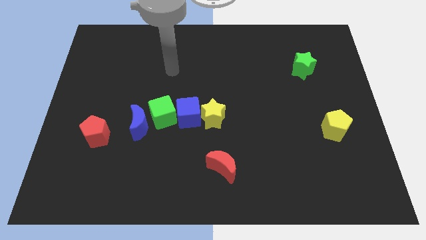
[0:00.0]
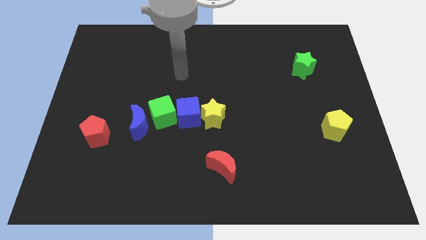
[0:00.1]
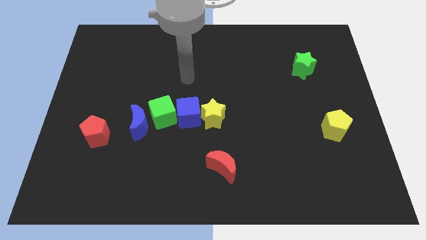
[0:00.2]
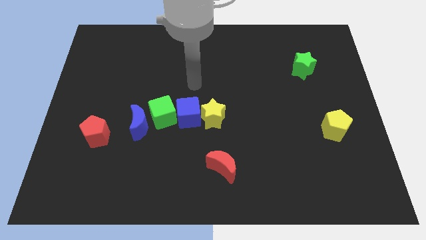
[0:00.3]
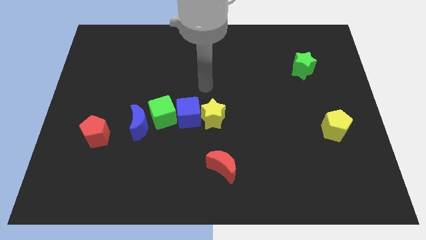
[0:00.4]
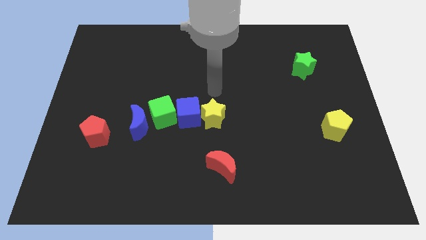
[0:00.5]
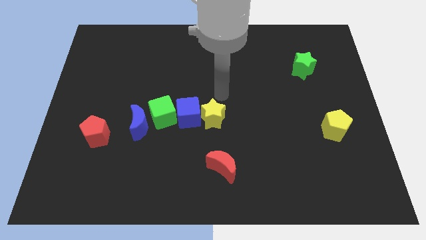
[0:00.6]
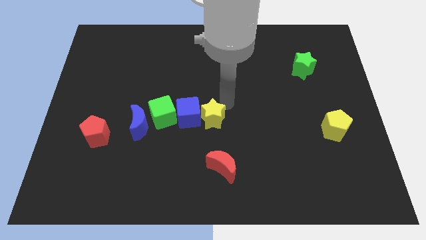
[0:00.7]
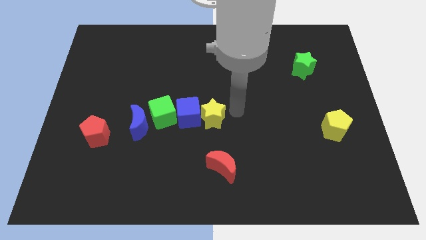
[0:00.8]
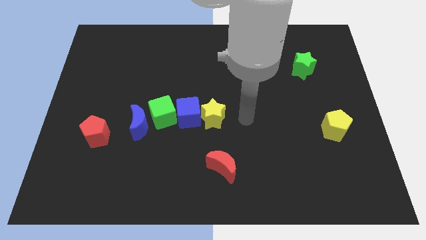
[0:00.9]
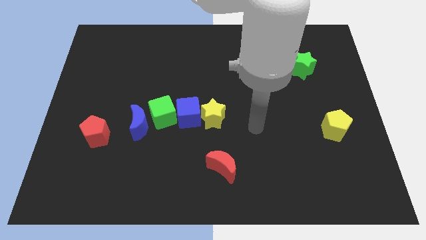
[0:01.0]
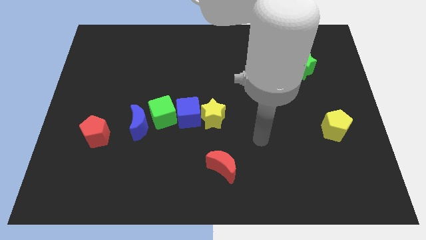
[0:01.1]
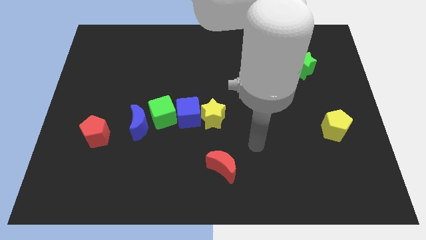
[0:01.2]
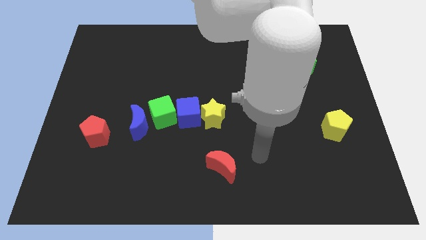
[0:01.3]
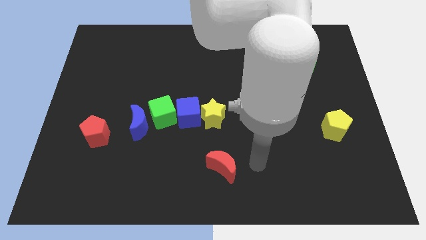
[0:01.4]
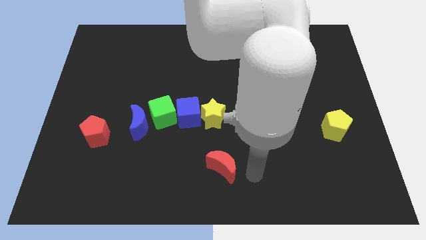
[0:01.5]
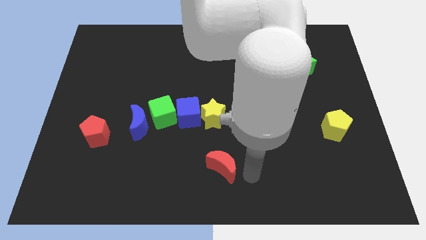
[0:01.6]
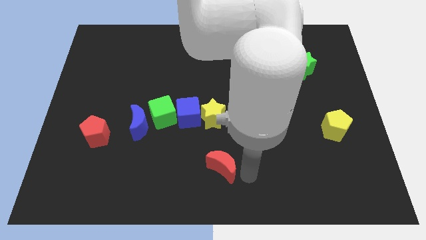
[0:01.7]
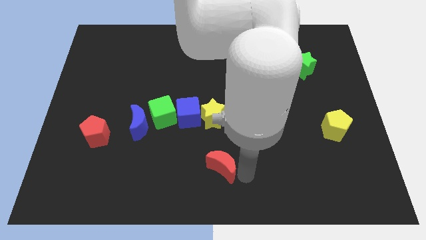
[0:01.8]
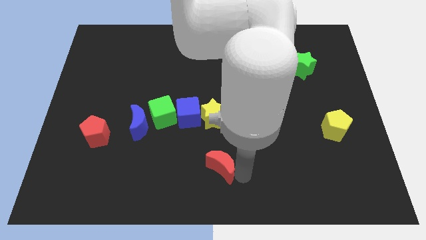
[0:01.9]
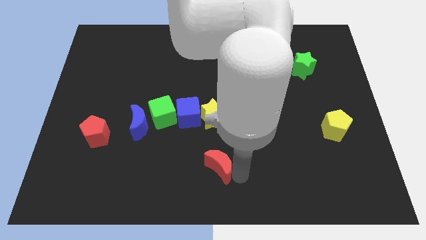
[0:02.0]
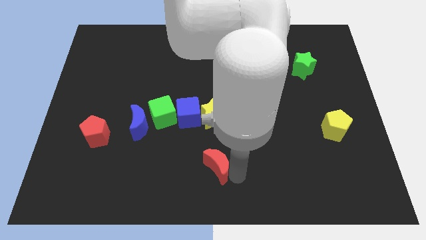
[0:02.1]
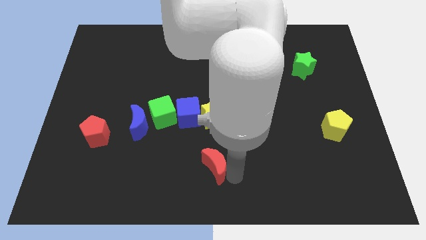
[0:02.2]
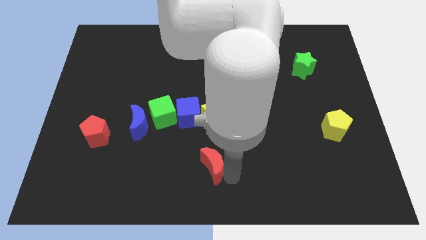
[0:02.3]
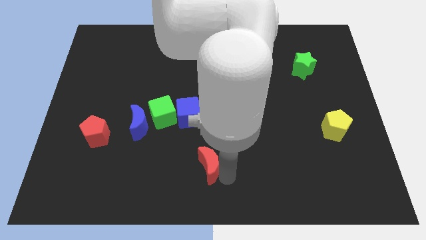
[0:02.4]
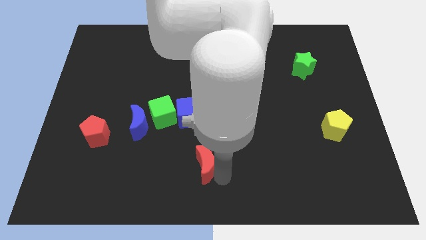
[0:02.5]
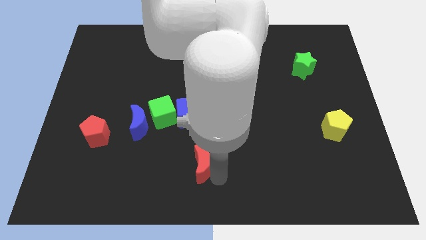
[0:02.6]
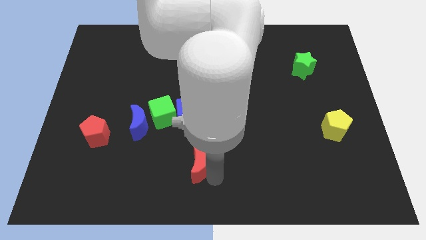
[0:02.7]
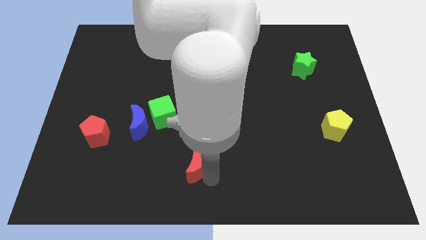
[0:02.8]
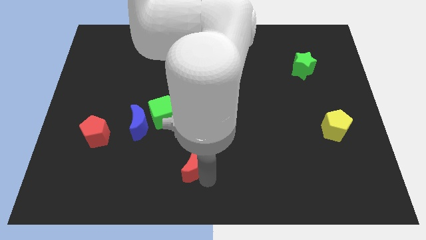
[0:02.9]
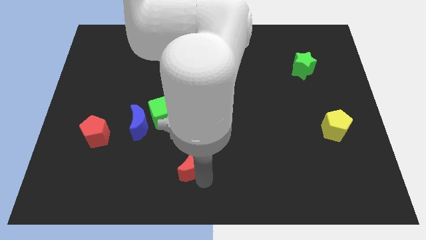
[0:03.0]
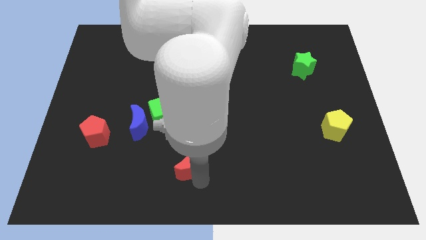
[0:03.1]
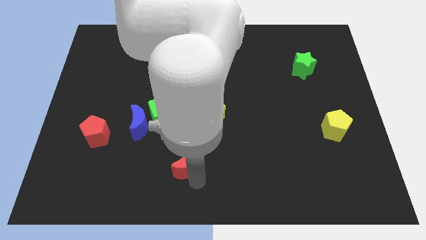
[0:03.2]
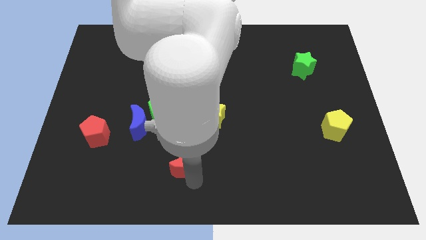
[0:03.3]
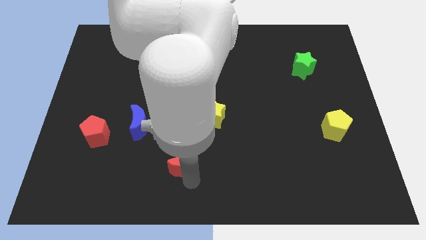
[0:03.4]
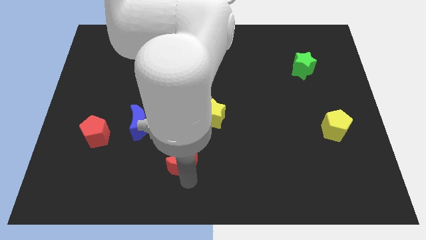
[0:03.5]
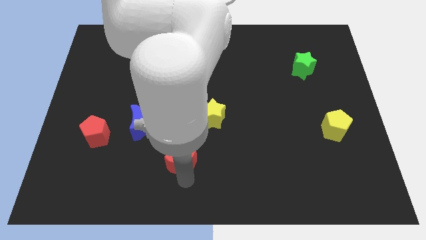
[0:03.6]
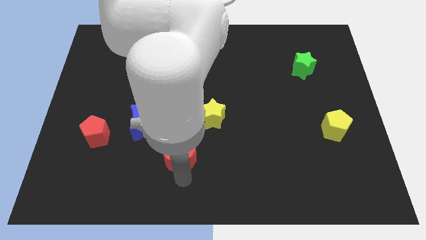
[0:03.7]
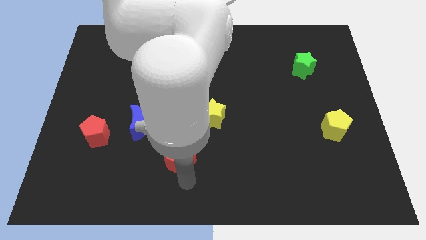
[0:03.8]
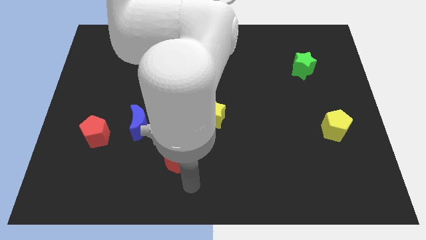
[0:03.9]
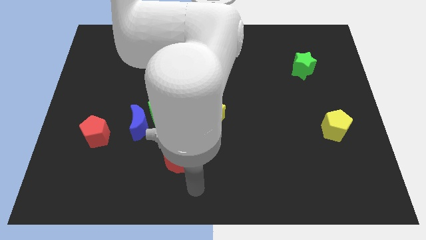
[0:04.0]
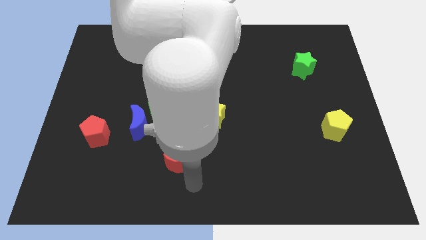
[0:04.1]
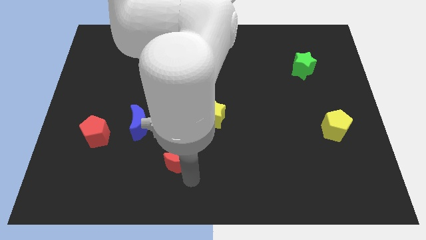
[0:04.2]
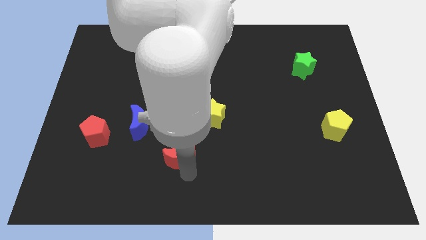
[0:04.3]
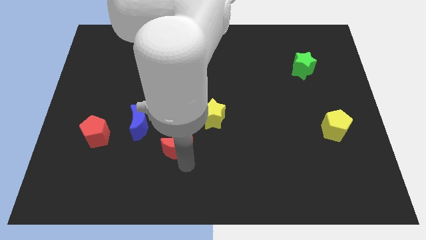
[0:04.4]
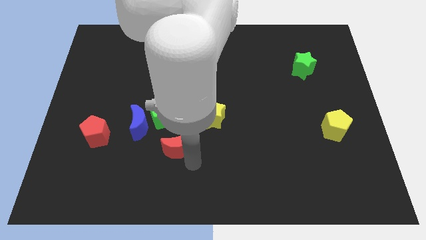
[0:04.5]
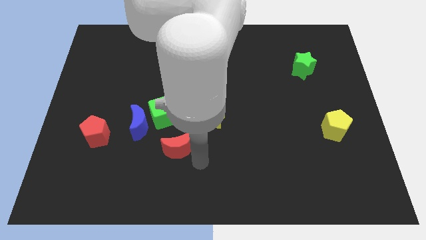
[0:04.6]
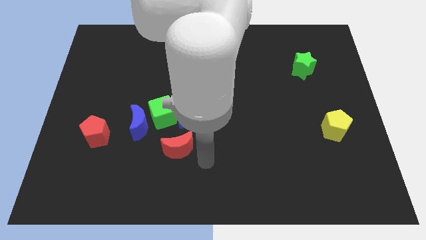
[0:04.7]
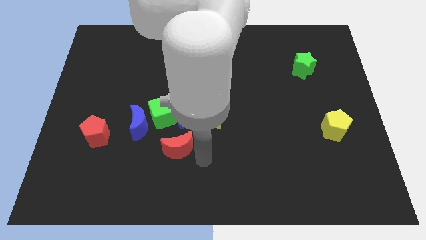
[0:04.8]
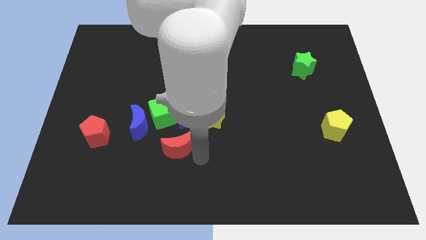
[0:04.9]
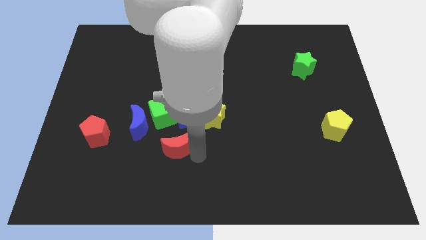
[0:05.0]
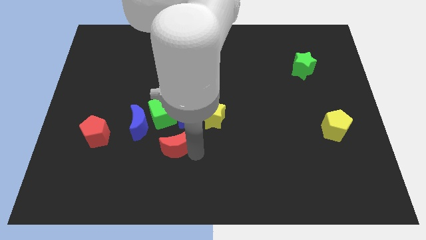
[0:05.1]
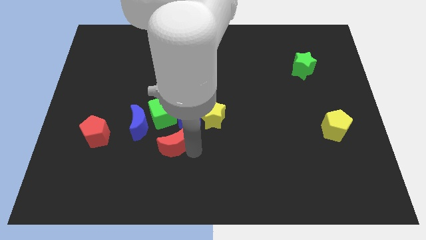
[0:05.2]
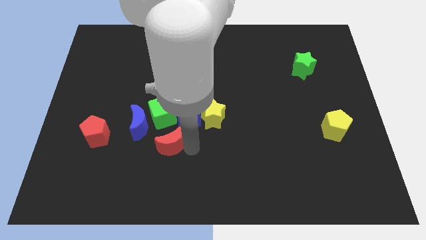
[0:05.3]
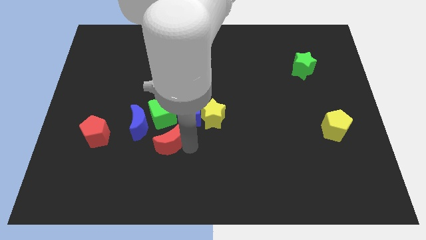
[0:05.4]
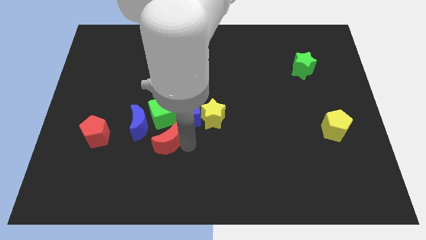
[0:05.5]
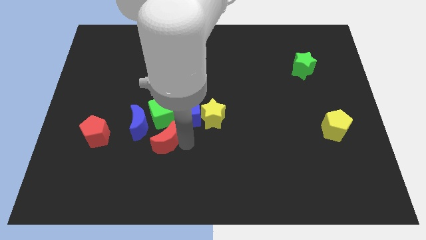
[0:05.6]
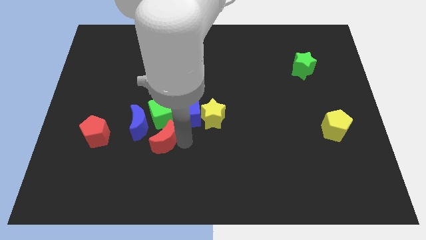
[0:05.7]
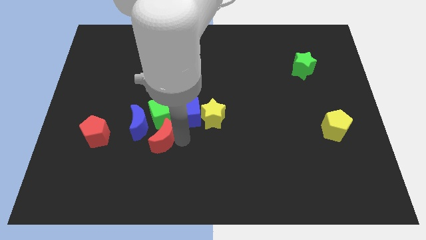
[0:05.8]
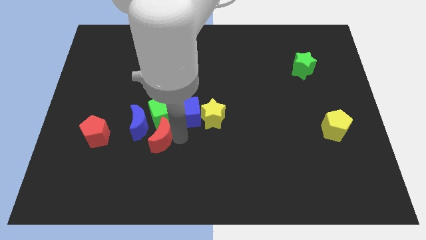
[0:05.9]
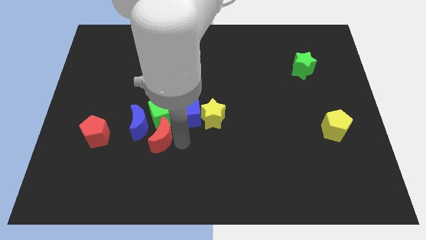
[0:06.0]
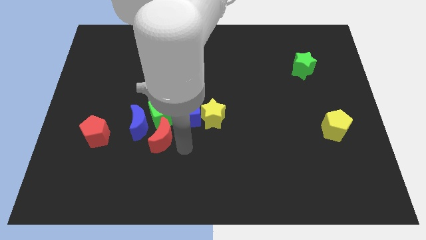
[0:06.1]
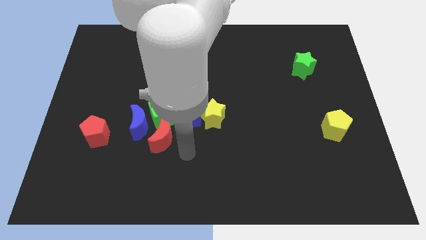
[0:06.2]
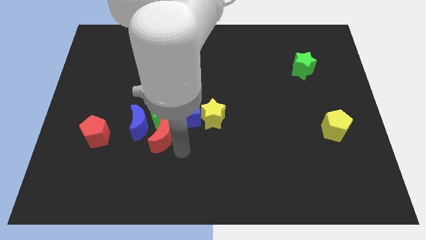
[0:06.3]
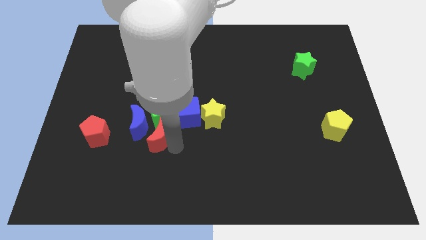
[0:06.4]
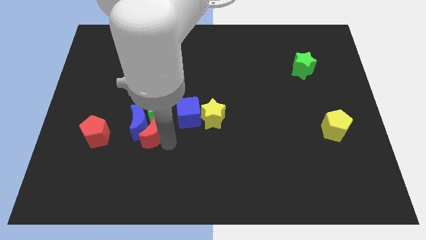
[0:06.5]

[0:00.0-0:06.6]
put the red moon close to the blue moon
